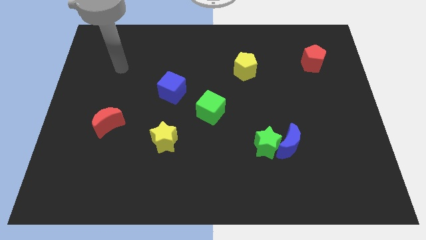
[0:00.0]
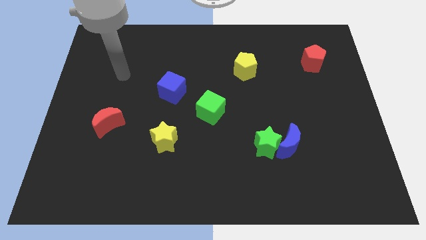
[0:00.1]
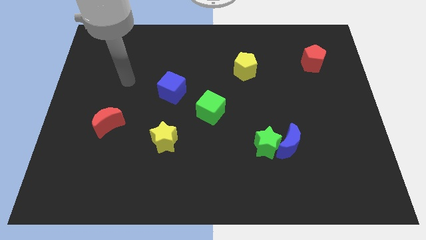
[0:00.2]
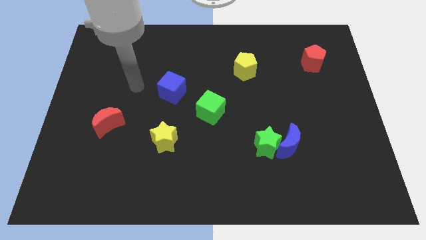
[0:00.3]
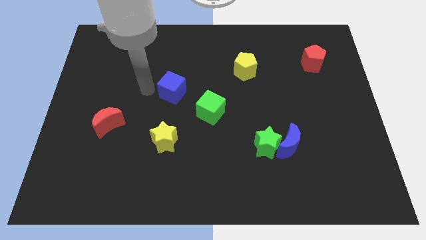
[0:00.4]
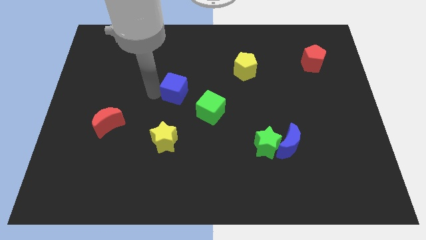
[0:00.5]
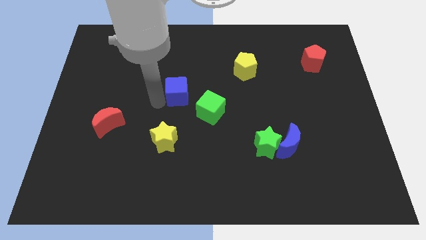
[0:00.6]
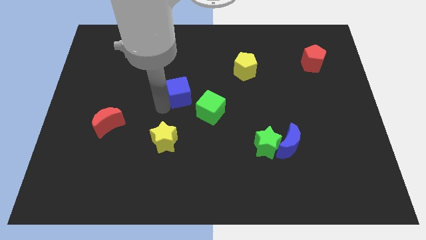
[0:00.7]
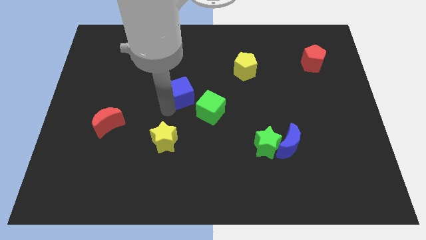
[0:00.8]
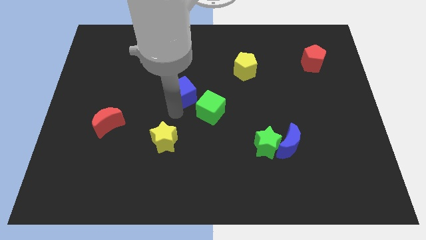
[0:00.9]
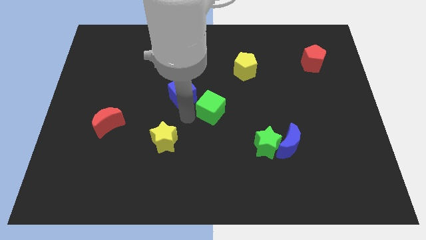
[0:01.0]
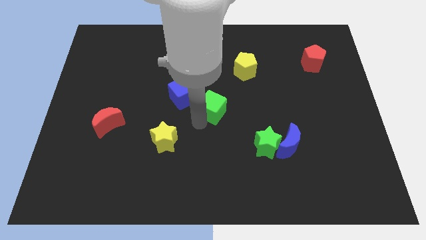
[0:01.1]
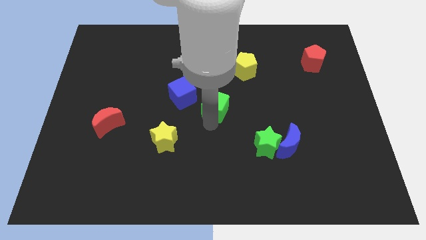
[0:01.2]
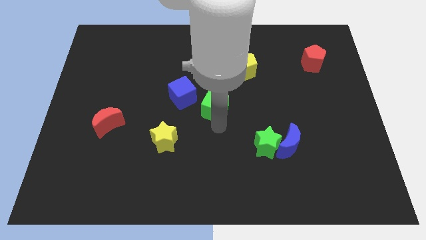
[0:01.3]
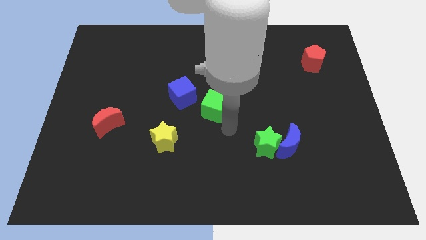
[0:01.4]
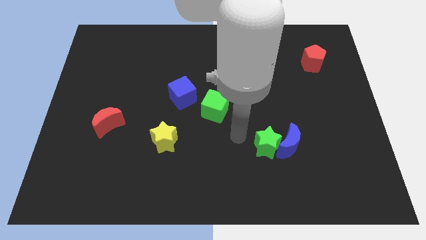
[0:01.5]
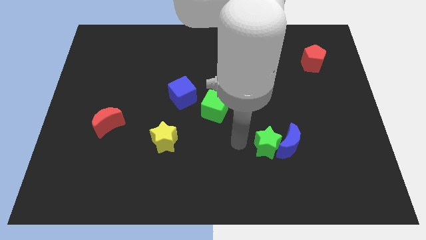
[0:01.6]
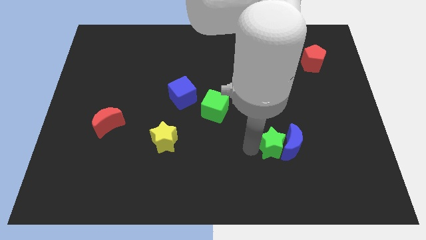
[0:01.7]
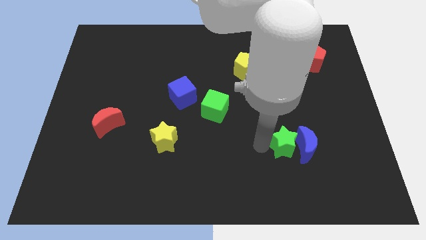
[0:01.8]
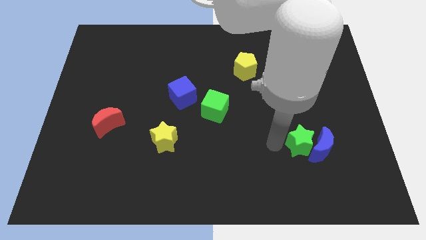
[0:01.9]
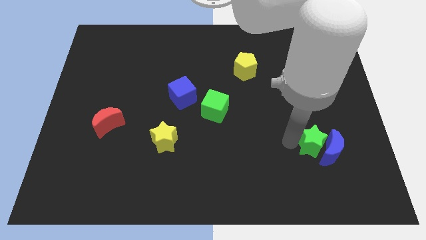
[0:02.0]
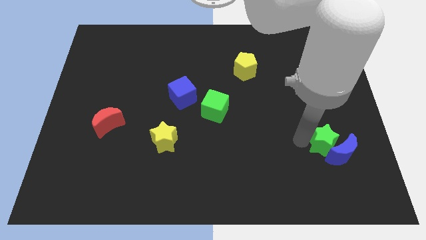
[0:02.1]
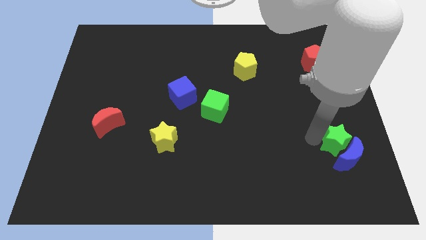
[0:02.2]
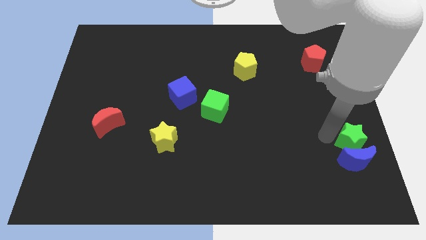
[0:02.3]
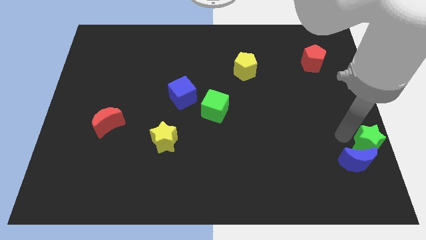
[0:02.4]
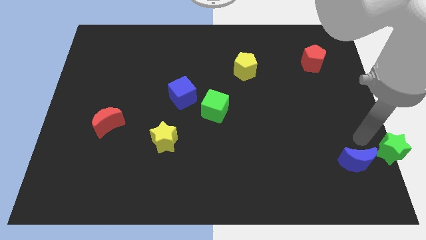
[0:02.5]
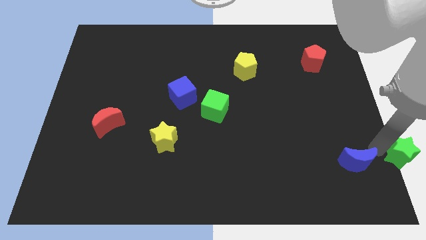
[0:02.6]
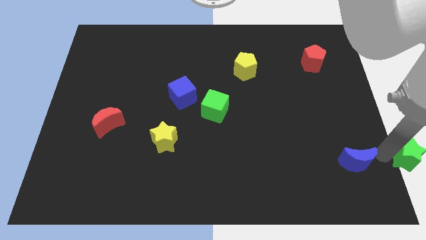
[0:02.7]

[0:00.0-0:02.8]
separate the blue moon from the green star

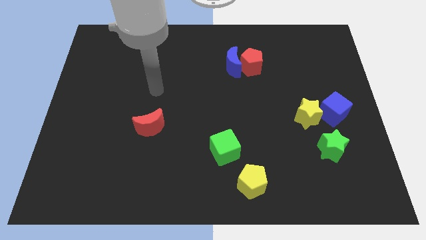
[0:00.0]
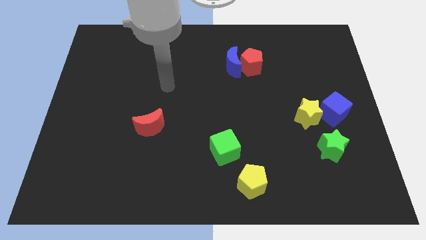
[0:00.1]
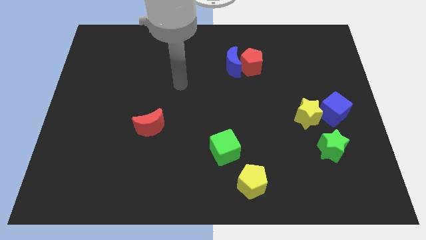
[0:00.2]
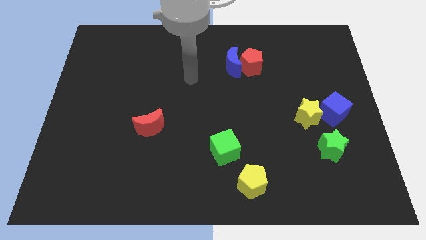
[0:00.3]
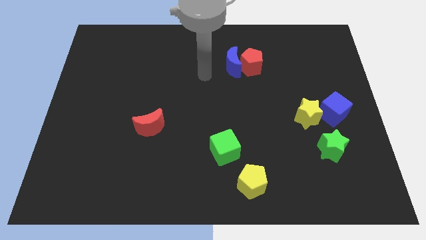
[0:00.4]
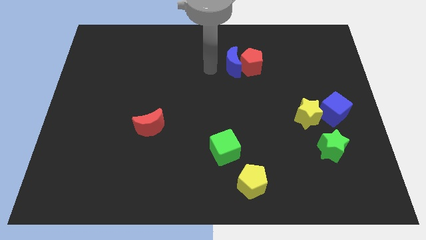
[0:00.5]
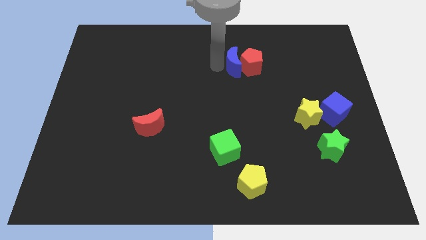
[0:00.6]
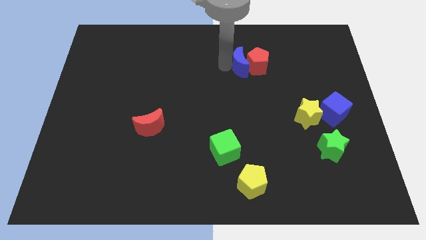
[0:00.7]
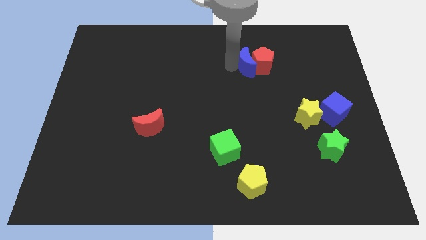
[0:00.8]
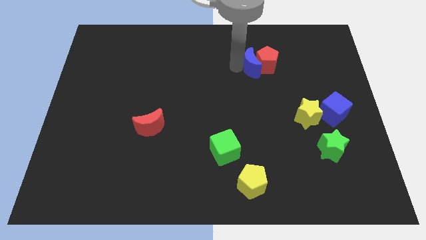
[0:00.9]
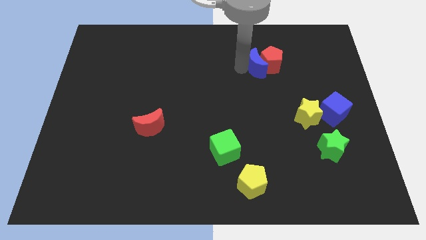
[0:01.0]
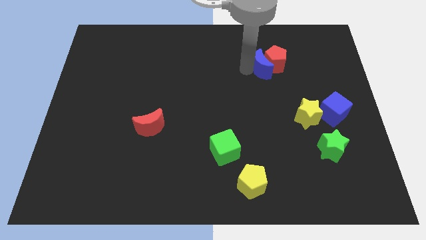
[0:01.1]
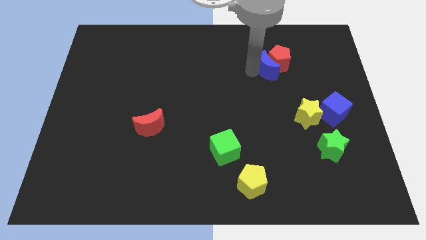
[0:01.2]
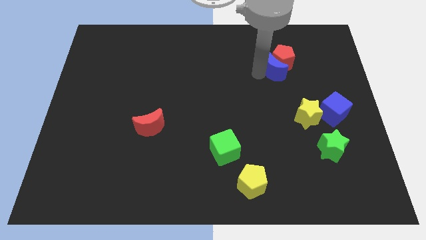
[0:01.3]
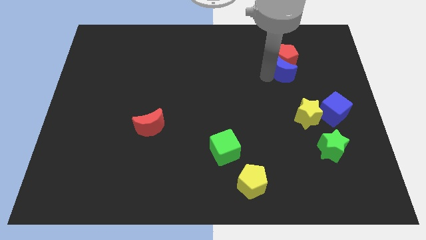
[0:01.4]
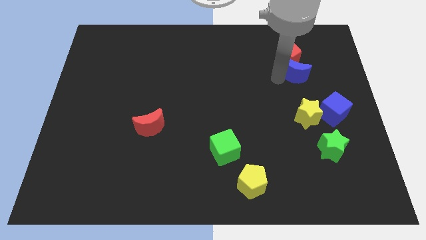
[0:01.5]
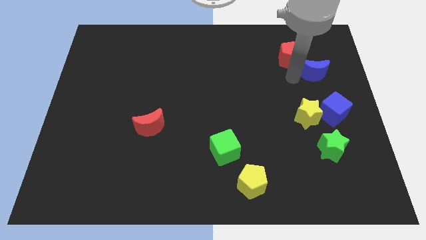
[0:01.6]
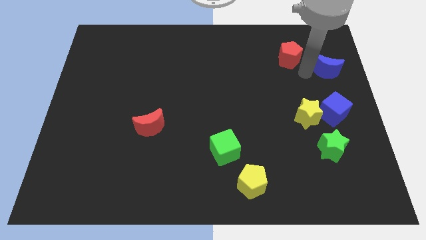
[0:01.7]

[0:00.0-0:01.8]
pull the red pentagon apart from the blue moon

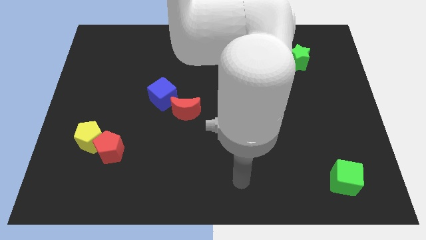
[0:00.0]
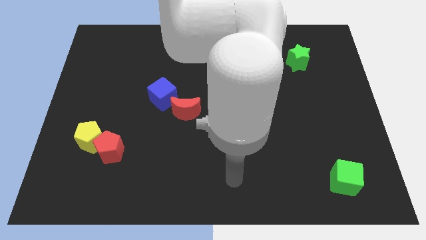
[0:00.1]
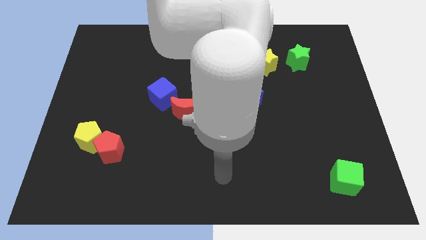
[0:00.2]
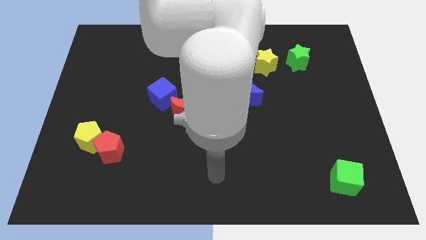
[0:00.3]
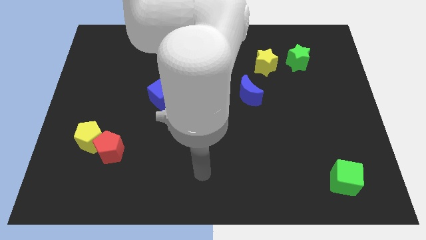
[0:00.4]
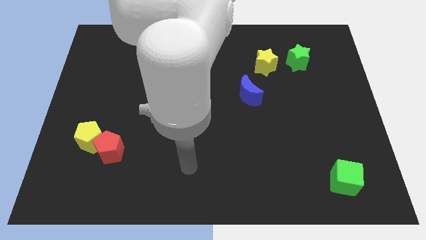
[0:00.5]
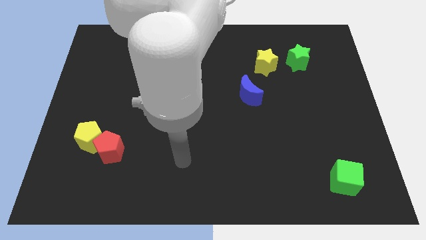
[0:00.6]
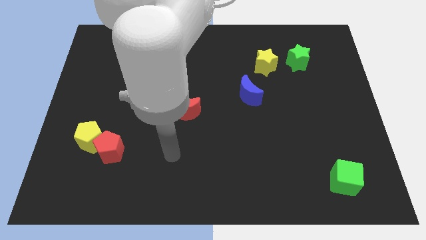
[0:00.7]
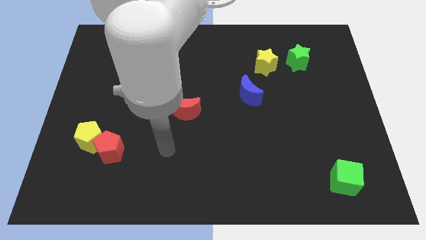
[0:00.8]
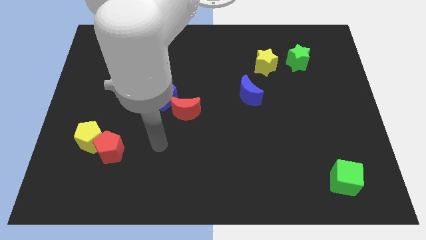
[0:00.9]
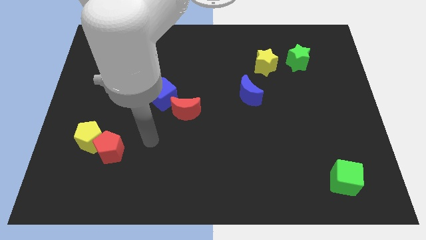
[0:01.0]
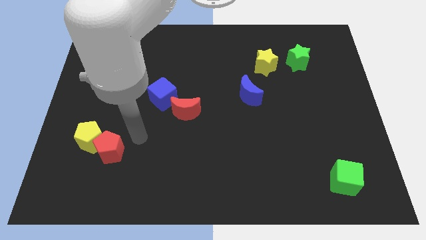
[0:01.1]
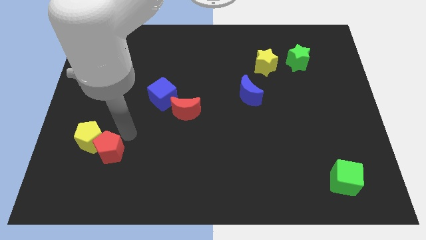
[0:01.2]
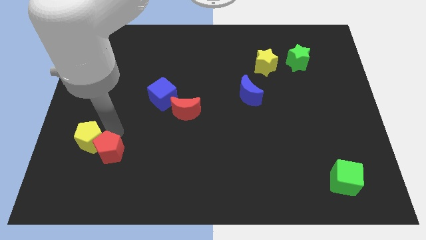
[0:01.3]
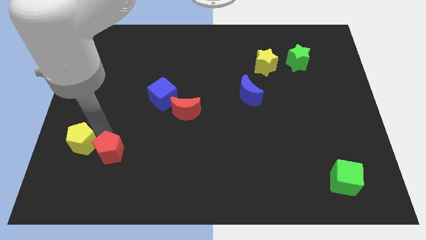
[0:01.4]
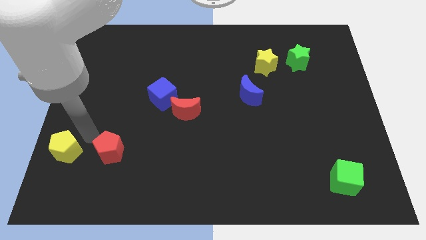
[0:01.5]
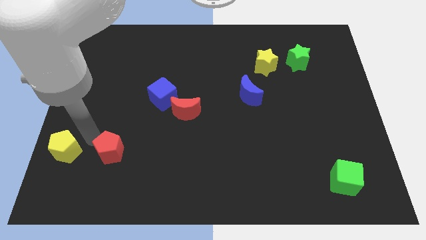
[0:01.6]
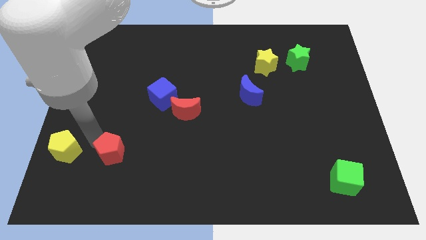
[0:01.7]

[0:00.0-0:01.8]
pull the red pentagon apart from the yellow pentagon

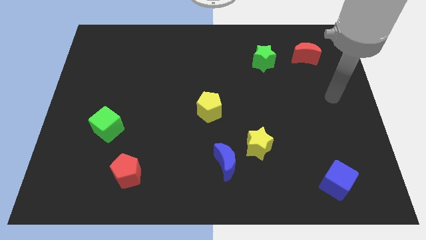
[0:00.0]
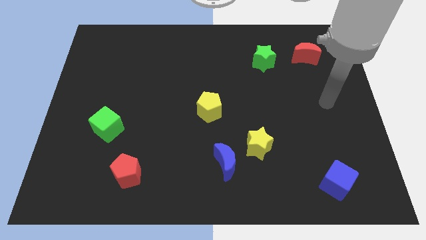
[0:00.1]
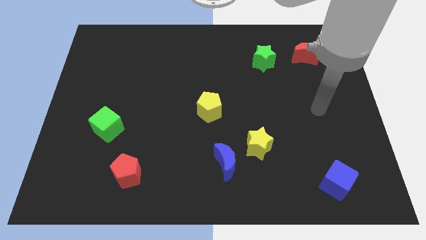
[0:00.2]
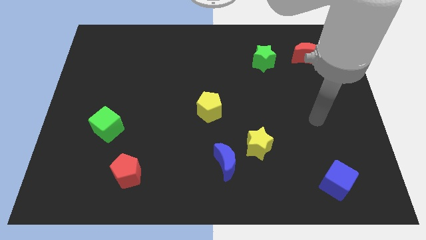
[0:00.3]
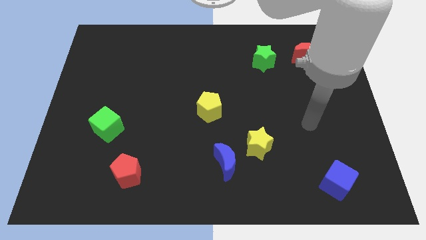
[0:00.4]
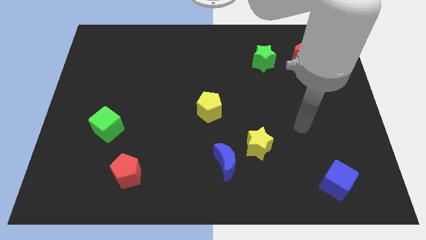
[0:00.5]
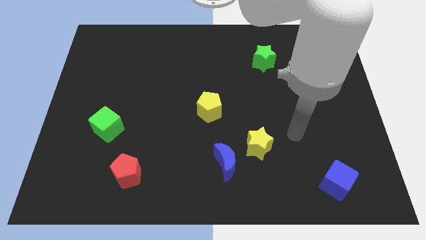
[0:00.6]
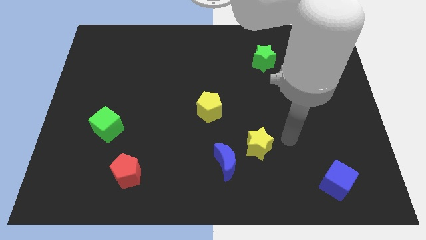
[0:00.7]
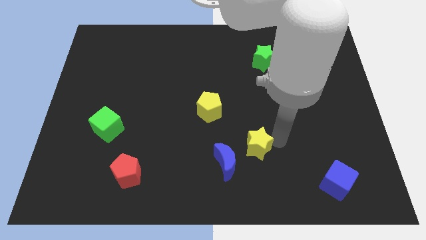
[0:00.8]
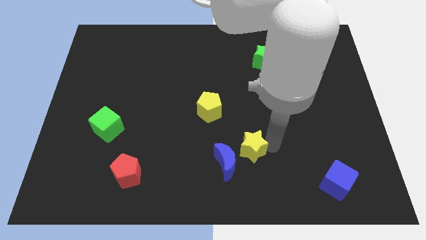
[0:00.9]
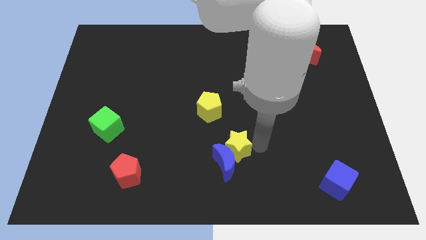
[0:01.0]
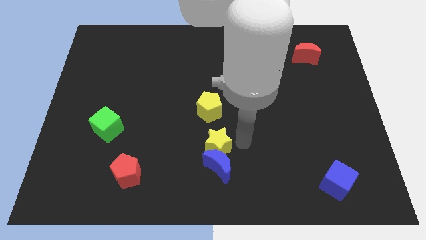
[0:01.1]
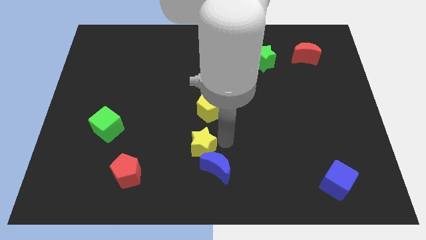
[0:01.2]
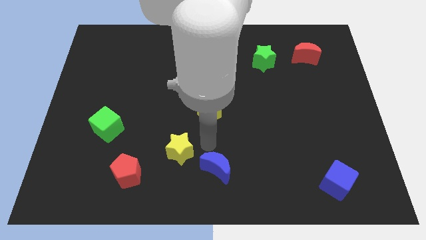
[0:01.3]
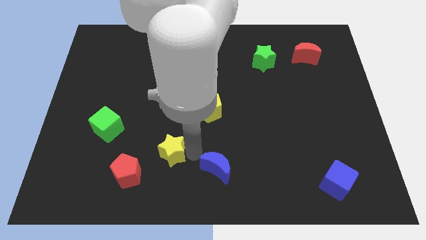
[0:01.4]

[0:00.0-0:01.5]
pull the blue moon apart from the yellow star

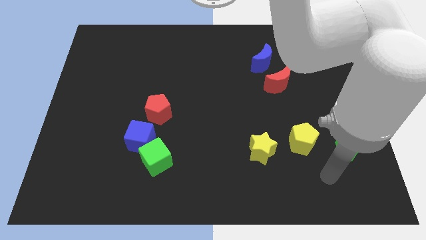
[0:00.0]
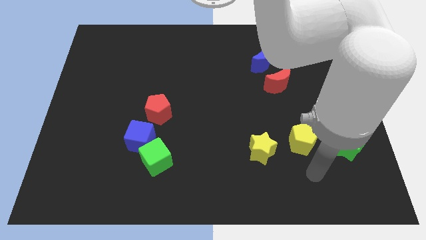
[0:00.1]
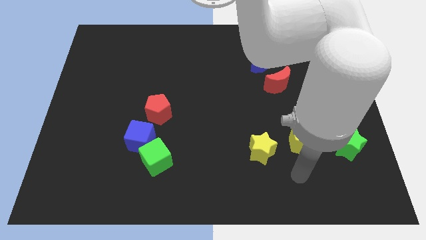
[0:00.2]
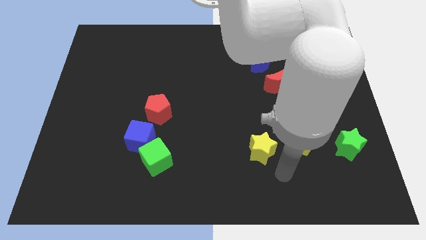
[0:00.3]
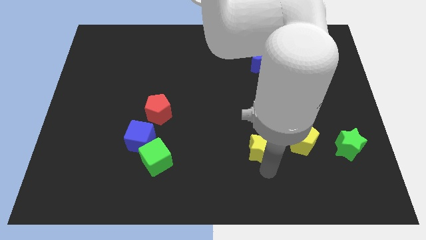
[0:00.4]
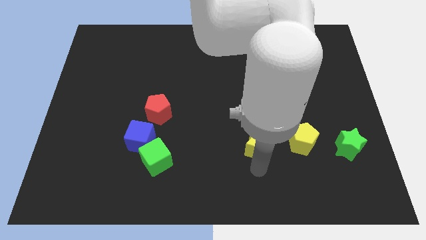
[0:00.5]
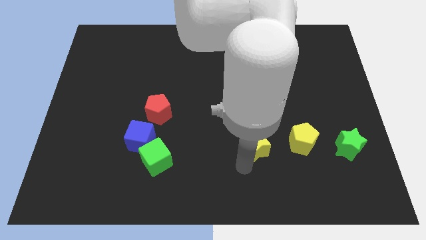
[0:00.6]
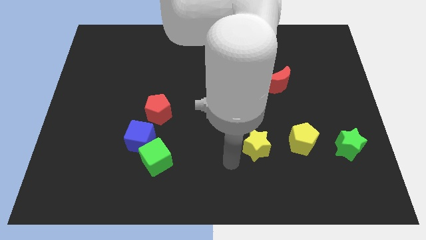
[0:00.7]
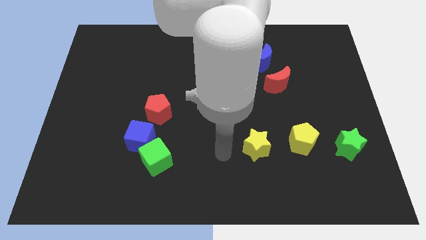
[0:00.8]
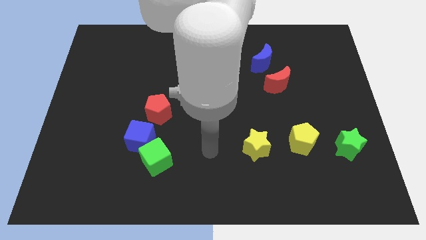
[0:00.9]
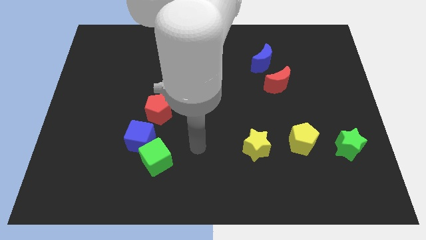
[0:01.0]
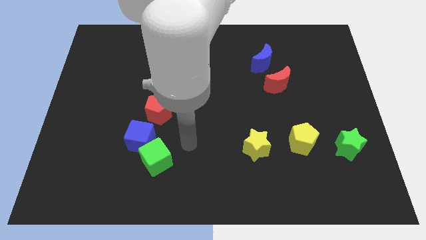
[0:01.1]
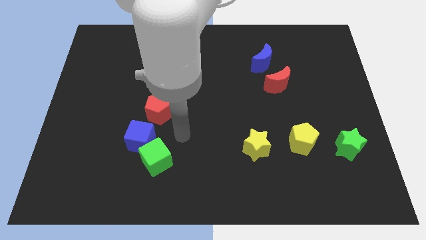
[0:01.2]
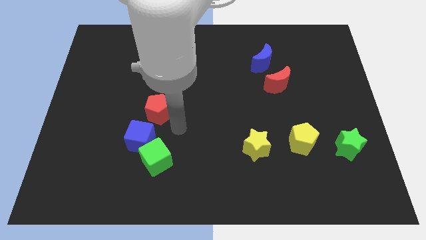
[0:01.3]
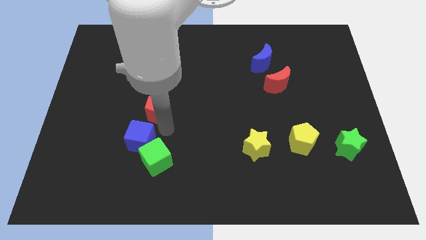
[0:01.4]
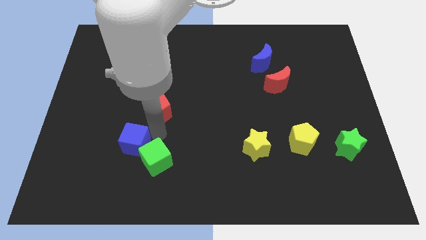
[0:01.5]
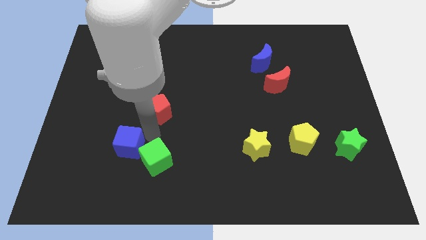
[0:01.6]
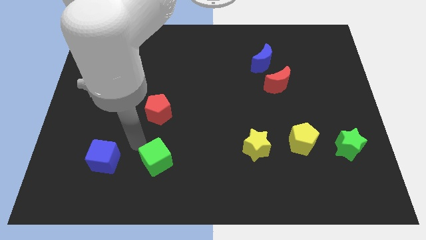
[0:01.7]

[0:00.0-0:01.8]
move the green cube away from the blue cube
